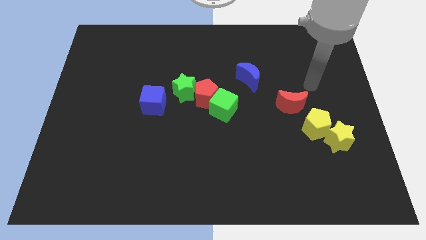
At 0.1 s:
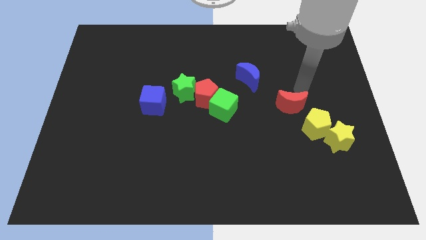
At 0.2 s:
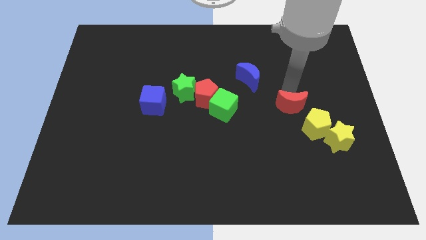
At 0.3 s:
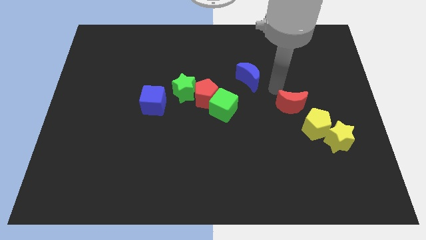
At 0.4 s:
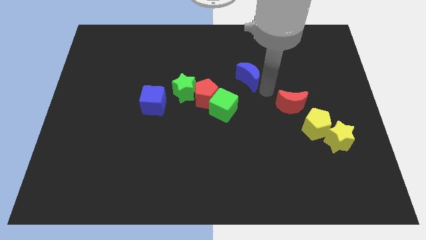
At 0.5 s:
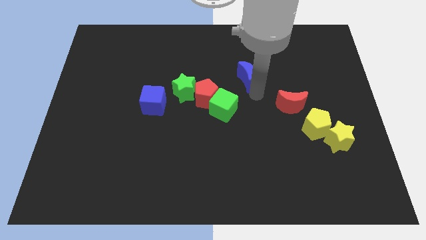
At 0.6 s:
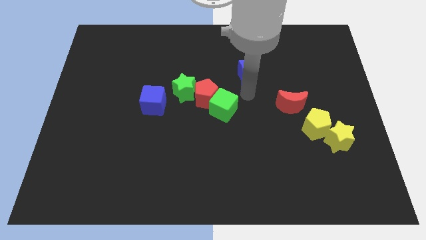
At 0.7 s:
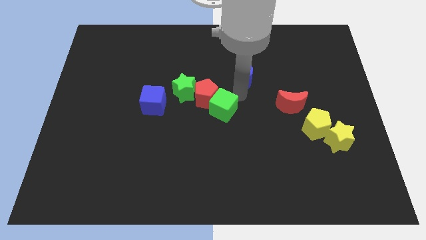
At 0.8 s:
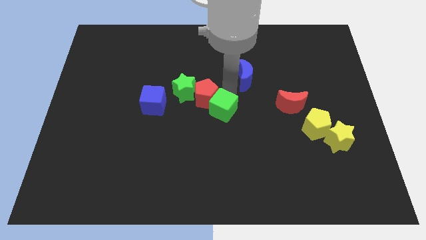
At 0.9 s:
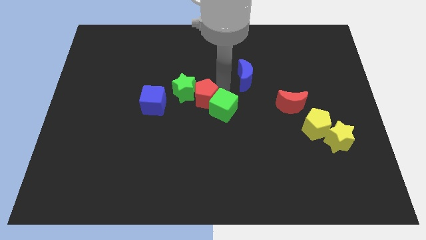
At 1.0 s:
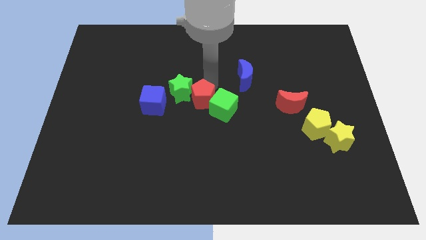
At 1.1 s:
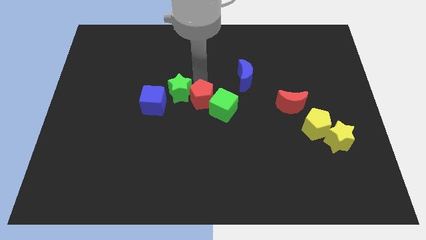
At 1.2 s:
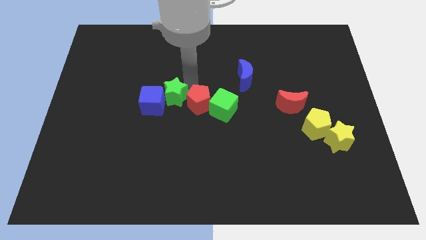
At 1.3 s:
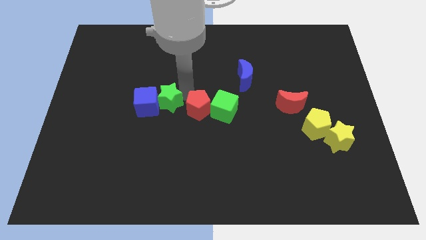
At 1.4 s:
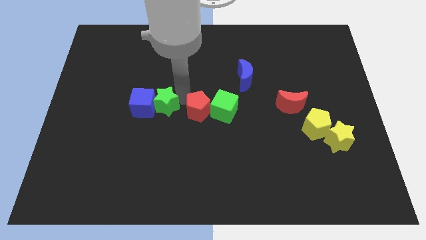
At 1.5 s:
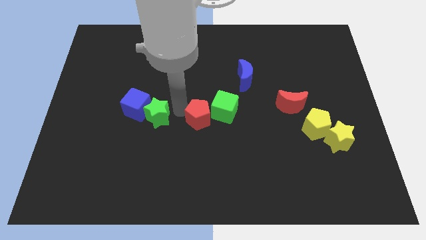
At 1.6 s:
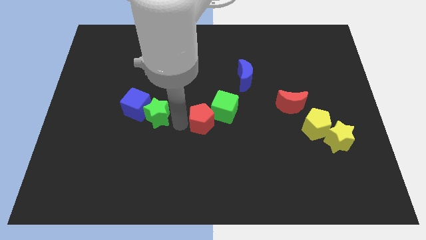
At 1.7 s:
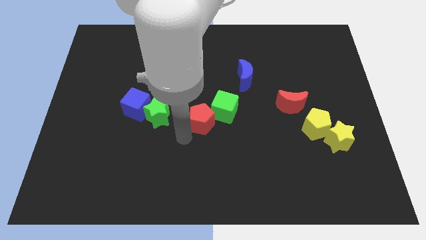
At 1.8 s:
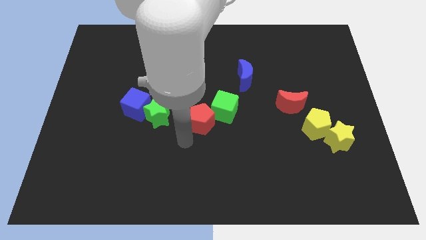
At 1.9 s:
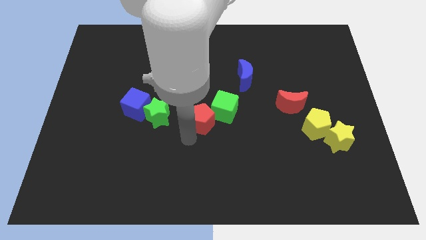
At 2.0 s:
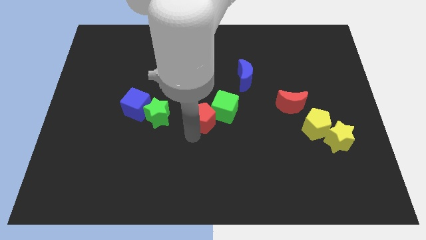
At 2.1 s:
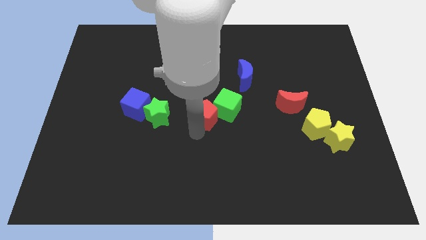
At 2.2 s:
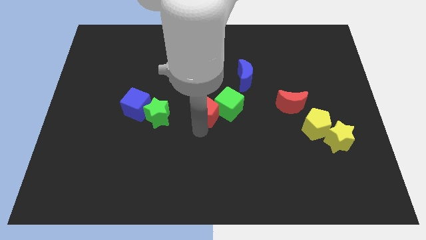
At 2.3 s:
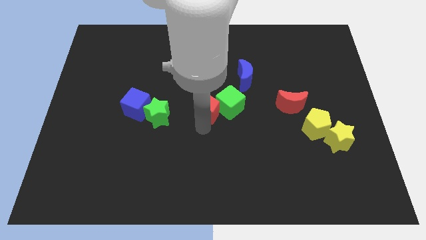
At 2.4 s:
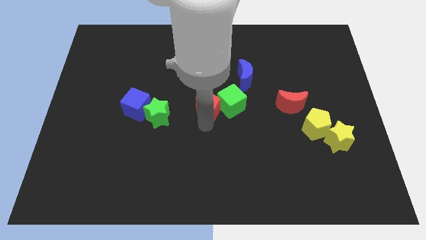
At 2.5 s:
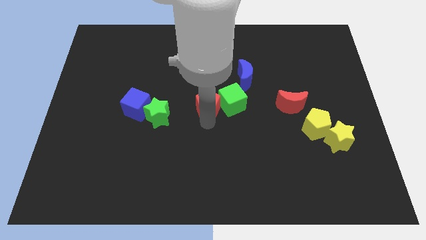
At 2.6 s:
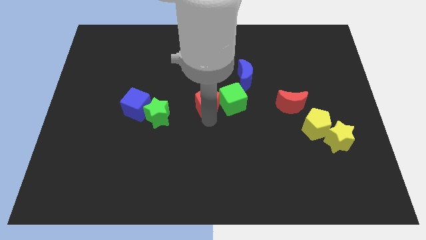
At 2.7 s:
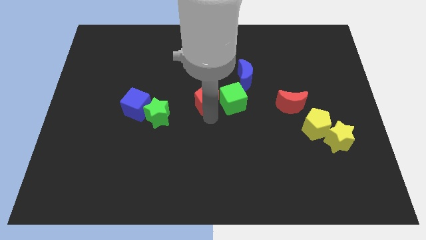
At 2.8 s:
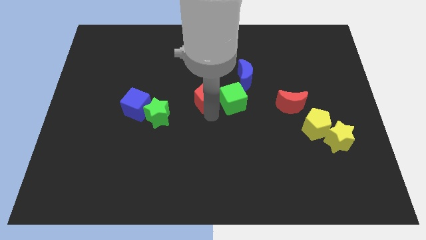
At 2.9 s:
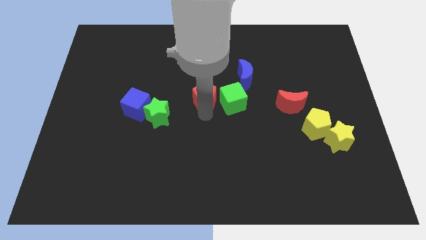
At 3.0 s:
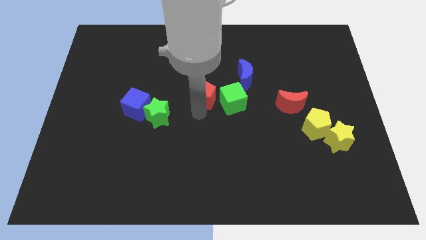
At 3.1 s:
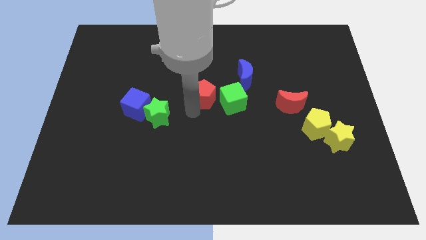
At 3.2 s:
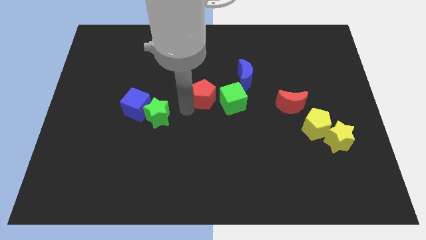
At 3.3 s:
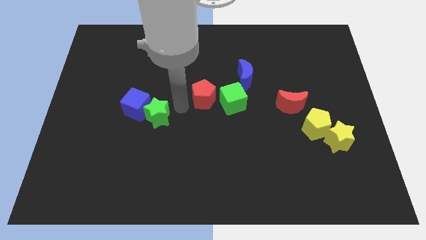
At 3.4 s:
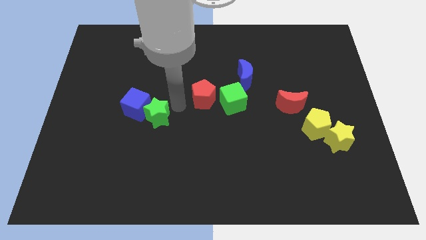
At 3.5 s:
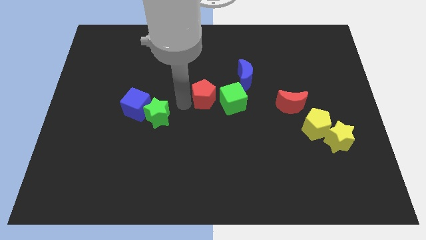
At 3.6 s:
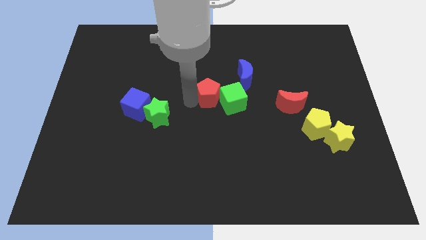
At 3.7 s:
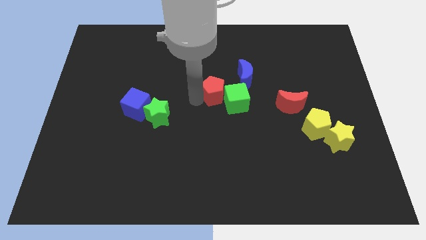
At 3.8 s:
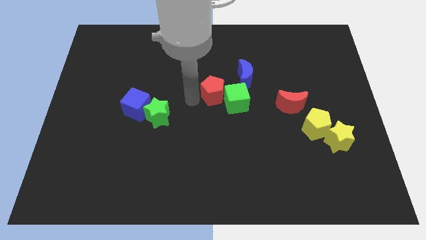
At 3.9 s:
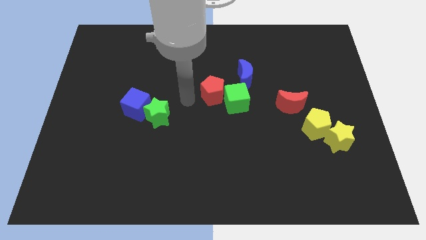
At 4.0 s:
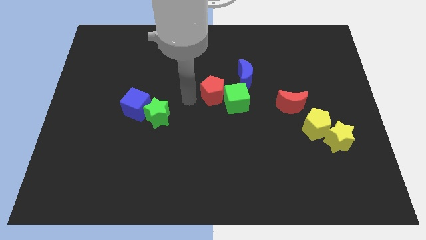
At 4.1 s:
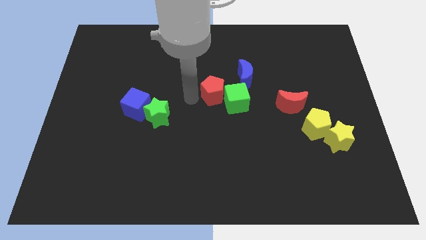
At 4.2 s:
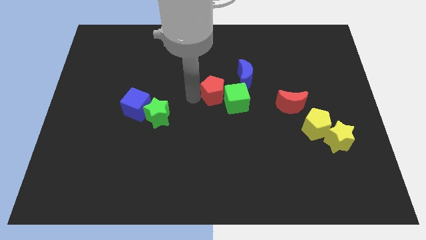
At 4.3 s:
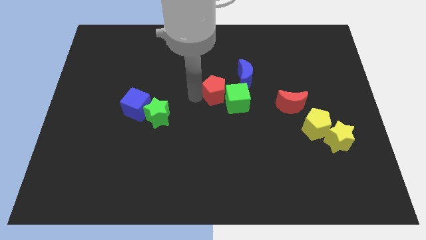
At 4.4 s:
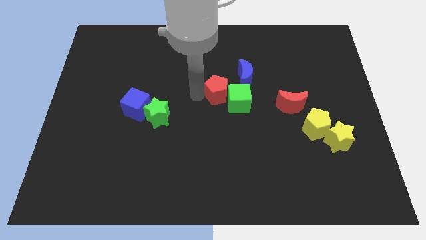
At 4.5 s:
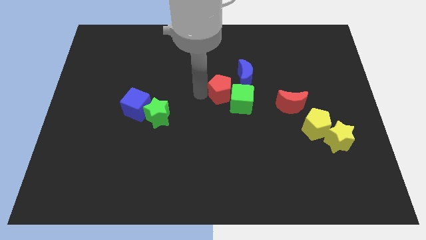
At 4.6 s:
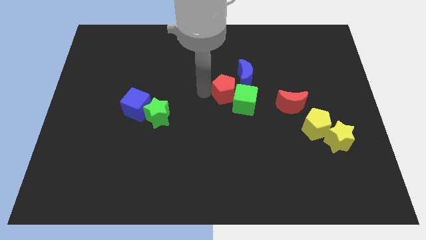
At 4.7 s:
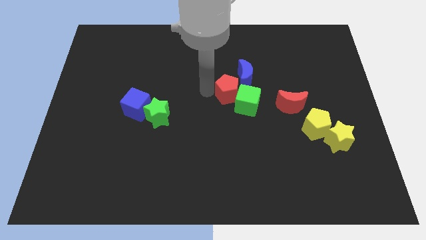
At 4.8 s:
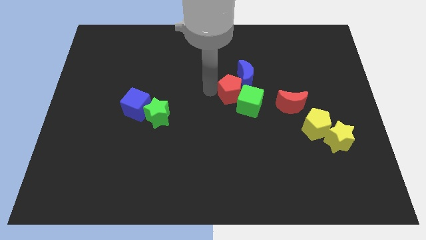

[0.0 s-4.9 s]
move the red pentagon next to the blue moon

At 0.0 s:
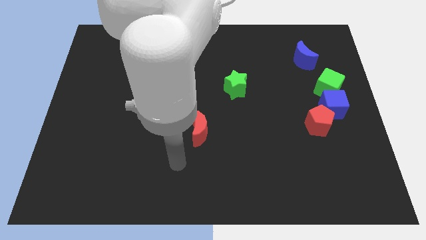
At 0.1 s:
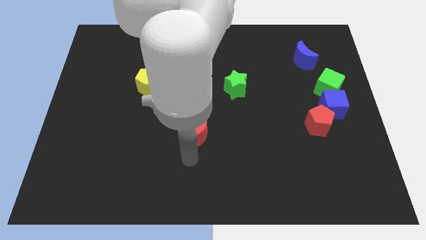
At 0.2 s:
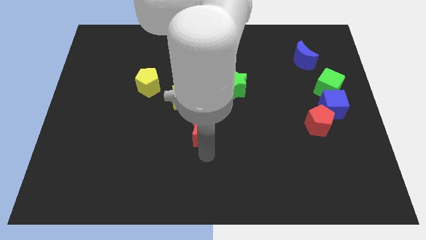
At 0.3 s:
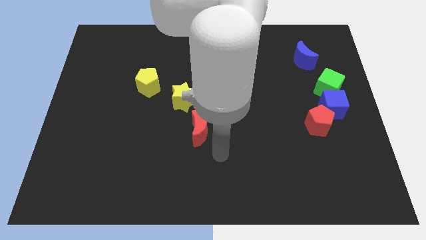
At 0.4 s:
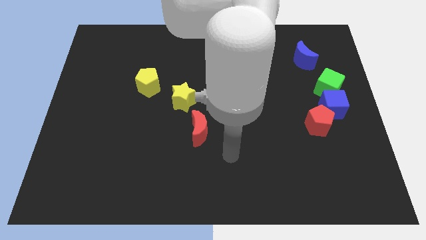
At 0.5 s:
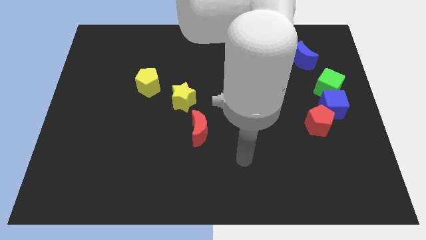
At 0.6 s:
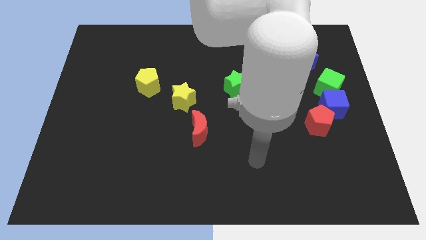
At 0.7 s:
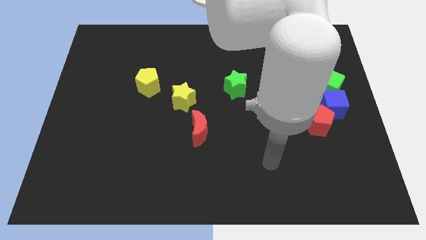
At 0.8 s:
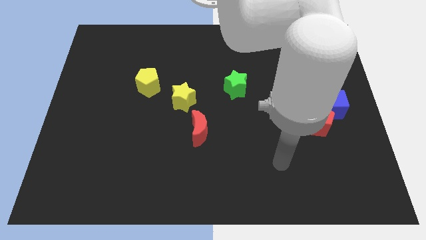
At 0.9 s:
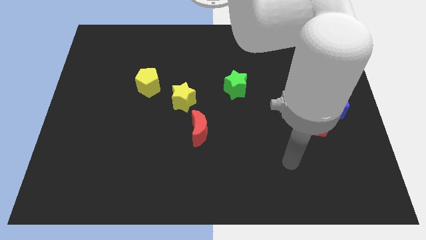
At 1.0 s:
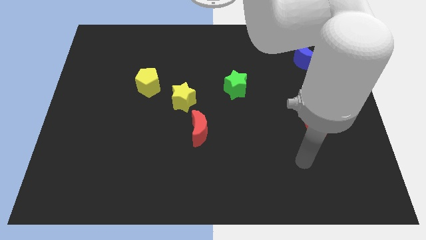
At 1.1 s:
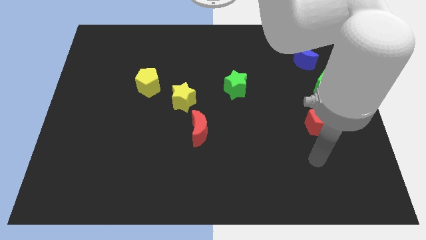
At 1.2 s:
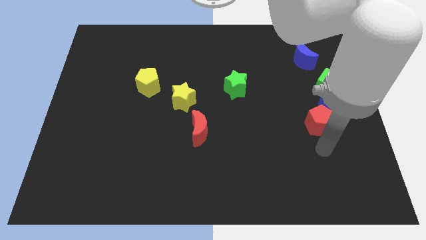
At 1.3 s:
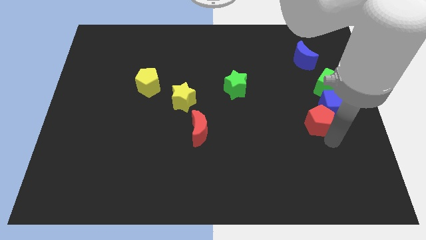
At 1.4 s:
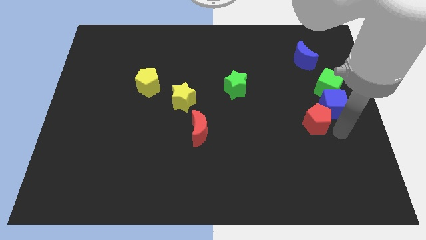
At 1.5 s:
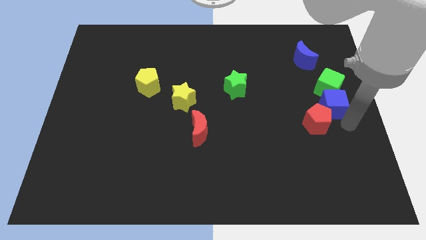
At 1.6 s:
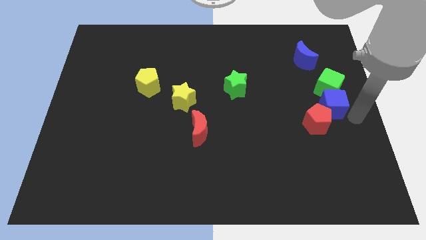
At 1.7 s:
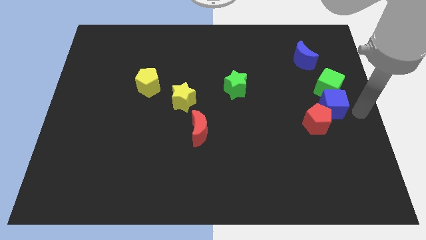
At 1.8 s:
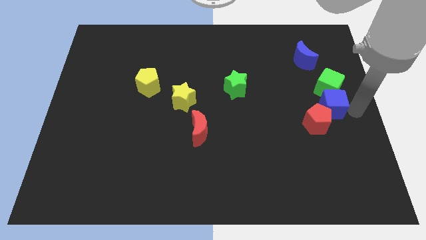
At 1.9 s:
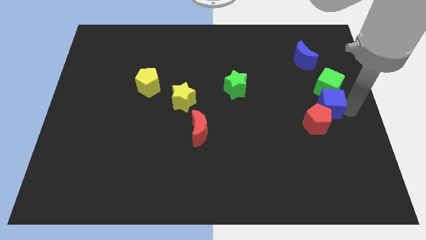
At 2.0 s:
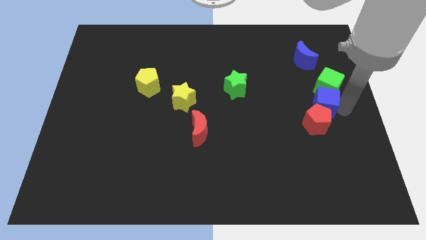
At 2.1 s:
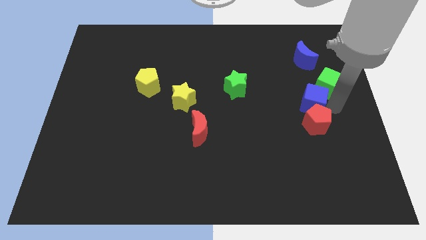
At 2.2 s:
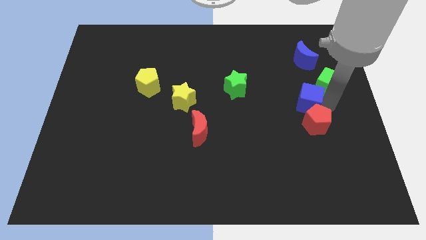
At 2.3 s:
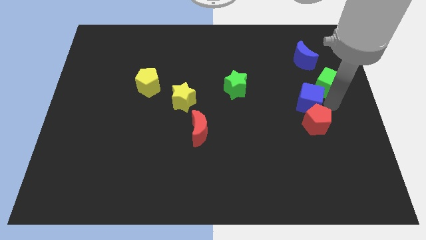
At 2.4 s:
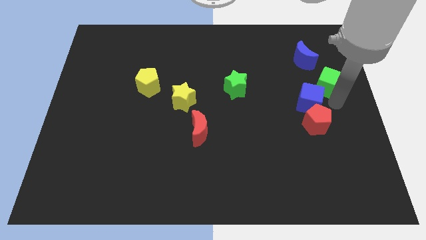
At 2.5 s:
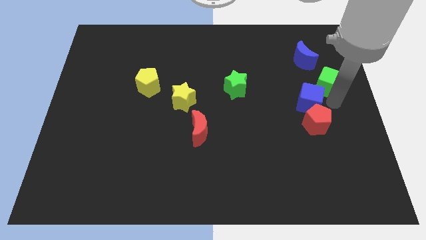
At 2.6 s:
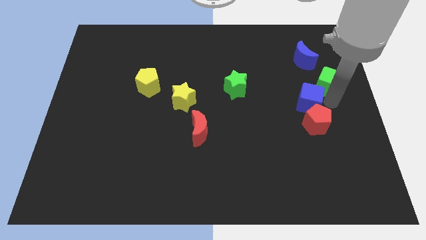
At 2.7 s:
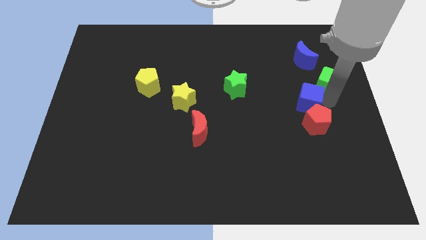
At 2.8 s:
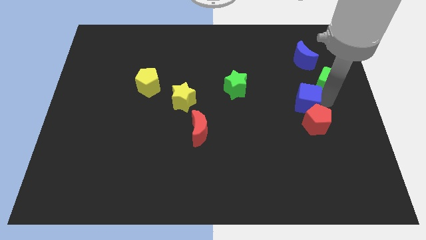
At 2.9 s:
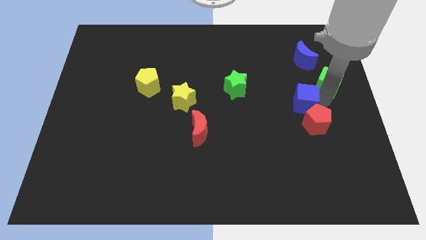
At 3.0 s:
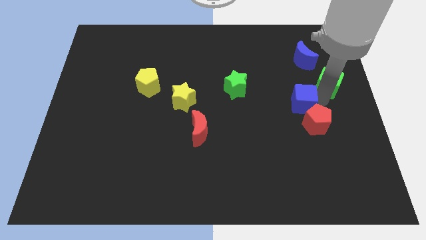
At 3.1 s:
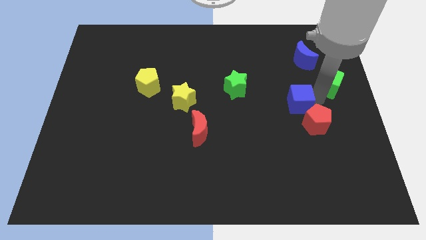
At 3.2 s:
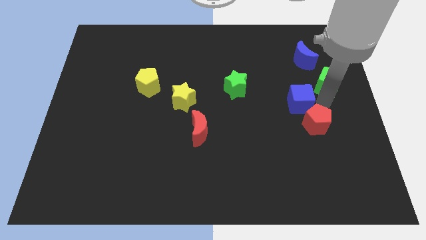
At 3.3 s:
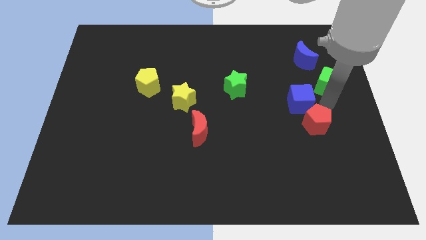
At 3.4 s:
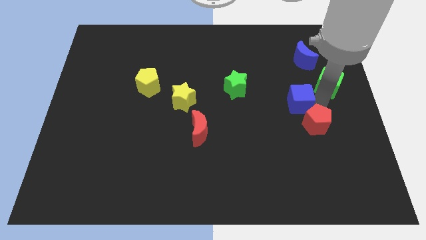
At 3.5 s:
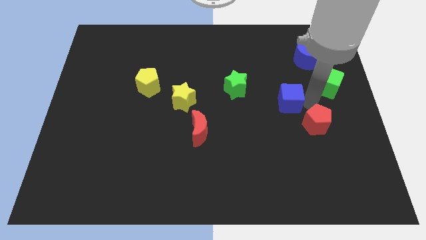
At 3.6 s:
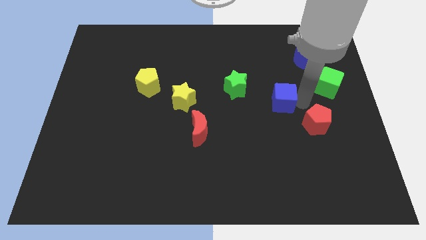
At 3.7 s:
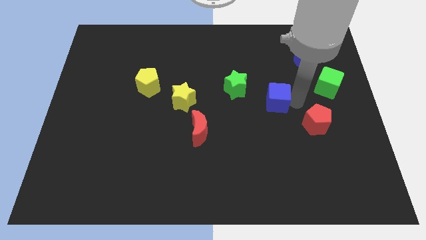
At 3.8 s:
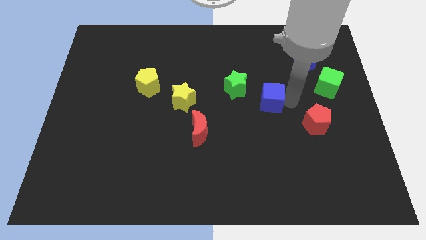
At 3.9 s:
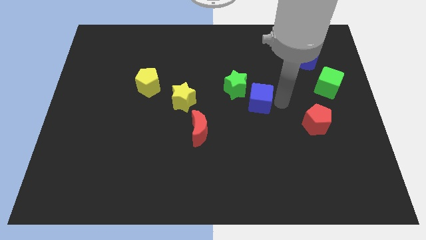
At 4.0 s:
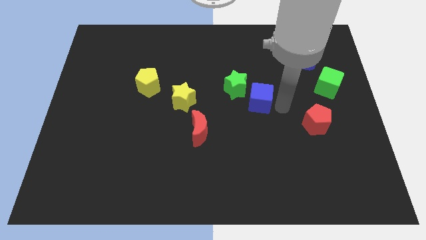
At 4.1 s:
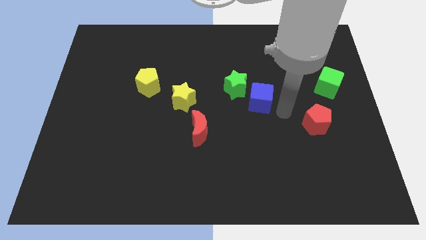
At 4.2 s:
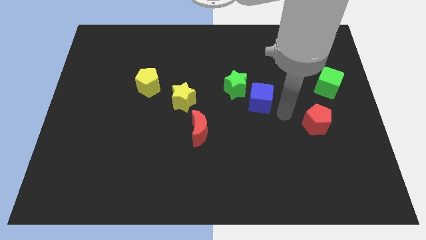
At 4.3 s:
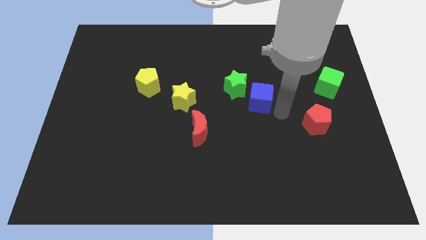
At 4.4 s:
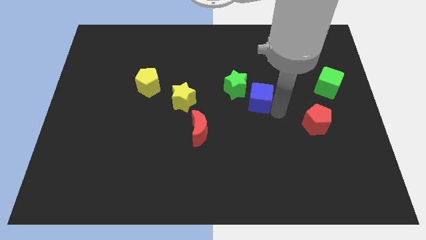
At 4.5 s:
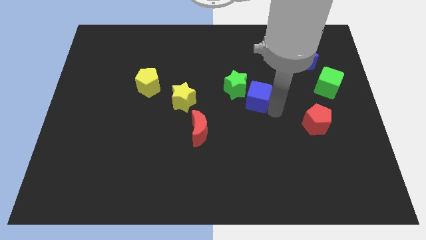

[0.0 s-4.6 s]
slide the blue cube close to the green star
